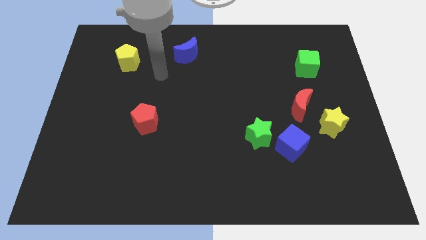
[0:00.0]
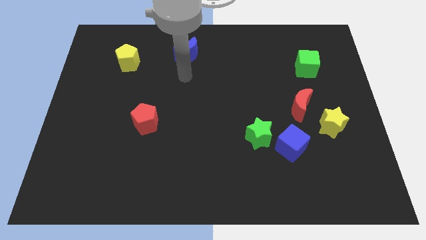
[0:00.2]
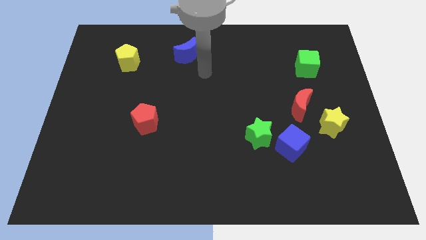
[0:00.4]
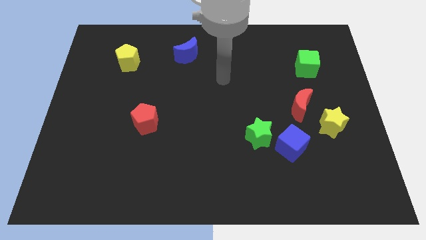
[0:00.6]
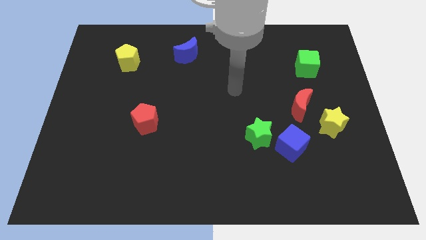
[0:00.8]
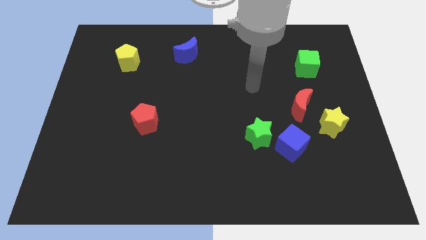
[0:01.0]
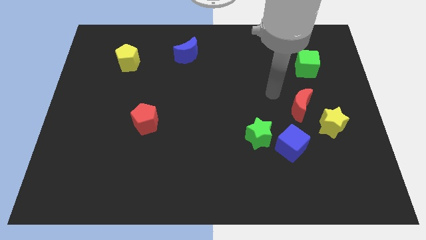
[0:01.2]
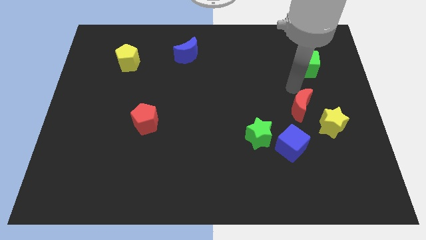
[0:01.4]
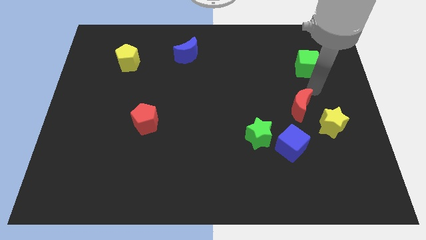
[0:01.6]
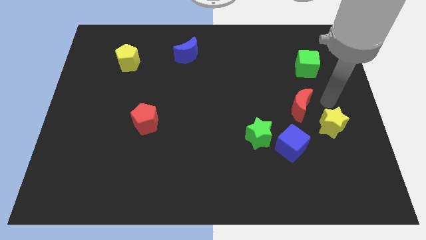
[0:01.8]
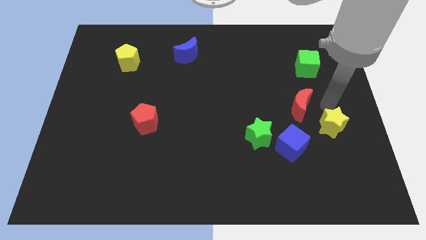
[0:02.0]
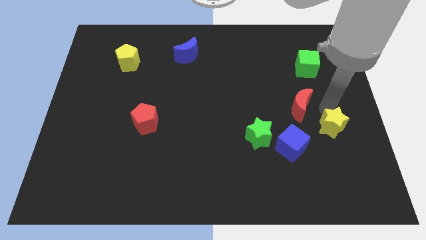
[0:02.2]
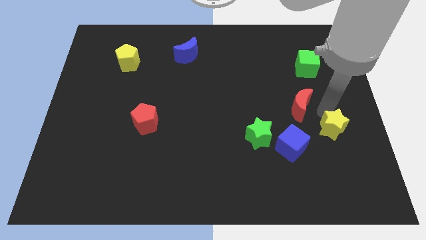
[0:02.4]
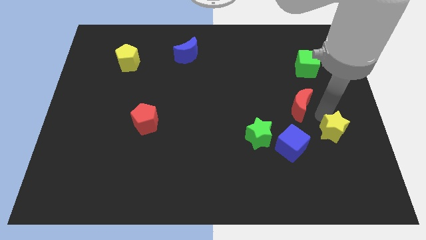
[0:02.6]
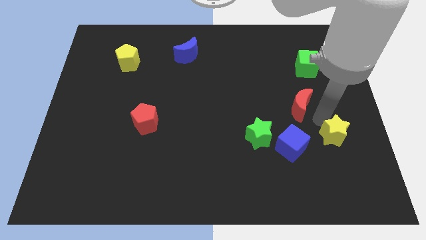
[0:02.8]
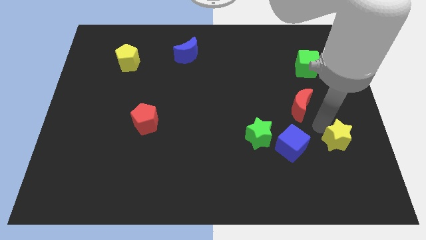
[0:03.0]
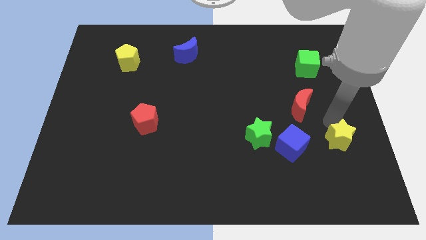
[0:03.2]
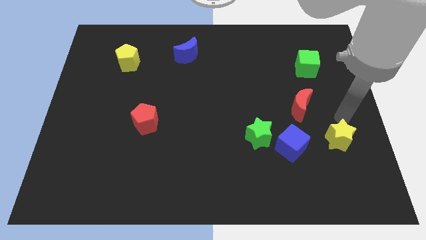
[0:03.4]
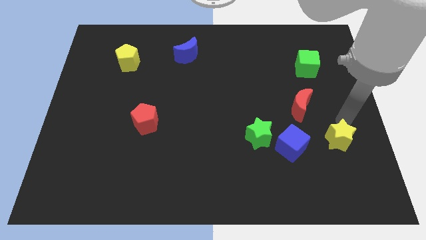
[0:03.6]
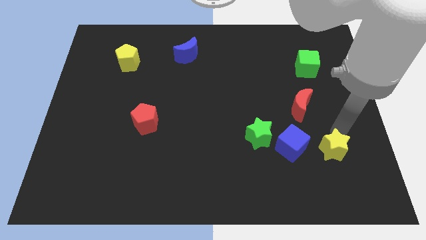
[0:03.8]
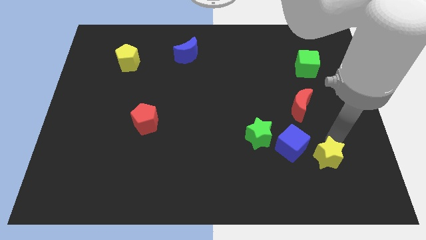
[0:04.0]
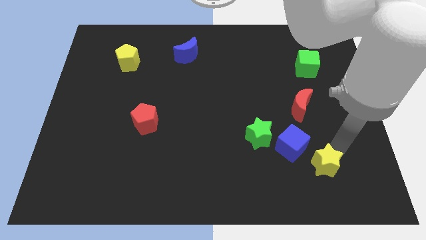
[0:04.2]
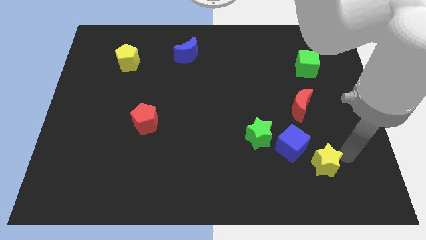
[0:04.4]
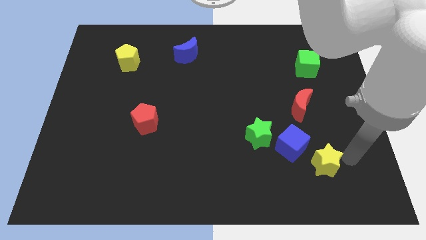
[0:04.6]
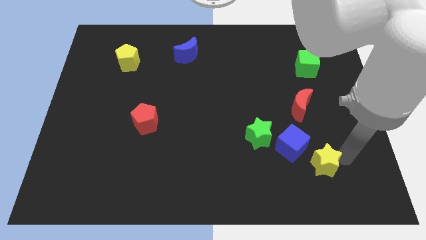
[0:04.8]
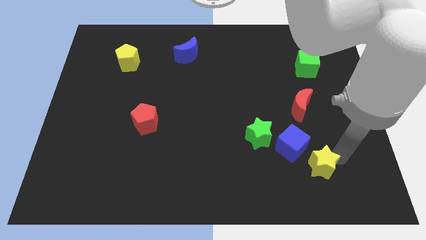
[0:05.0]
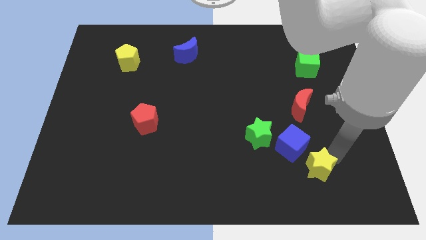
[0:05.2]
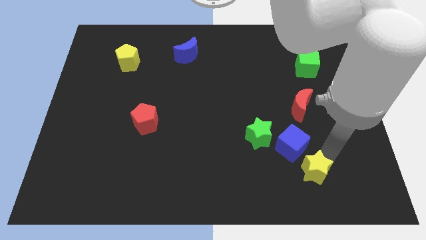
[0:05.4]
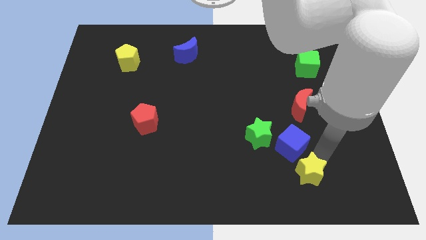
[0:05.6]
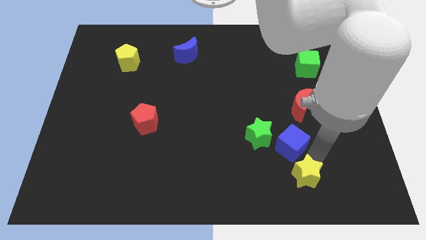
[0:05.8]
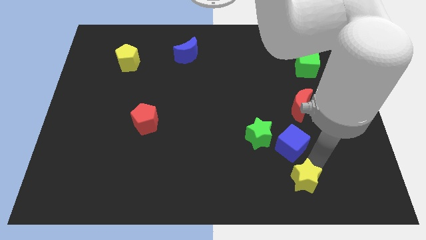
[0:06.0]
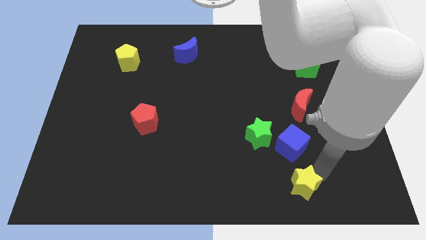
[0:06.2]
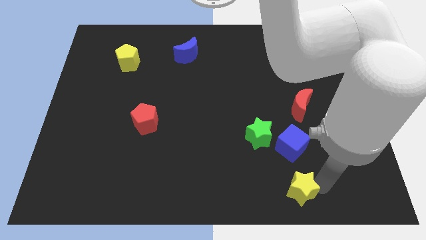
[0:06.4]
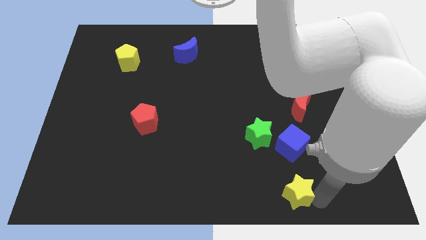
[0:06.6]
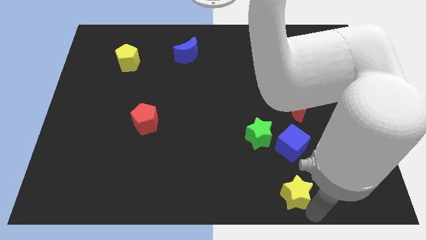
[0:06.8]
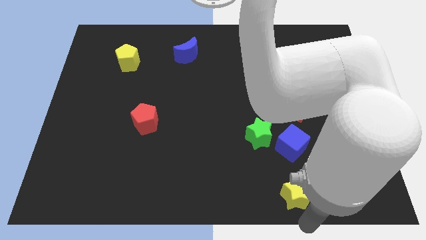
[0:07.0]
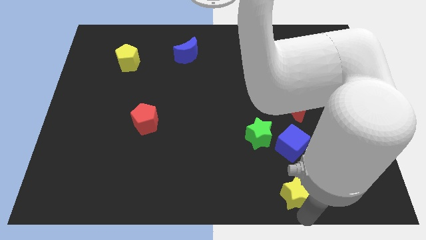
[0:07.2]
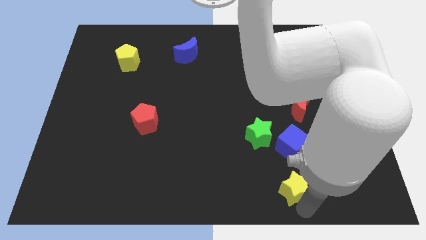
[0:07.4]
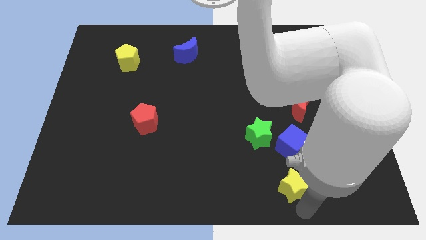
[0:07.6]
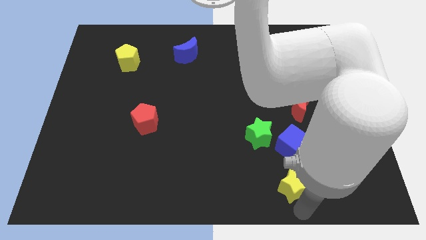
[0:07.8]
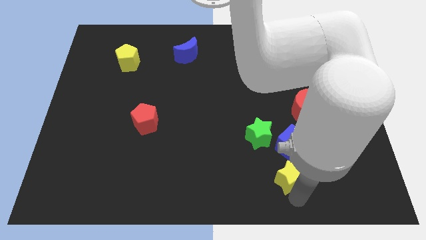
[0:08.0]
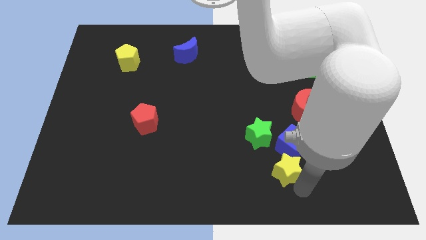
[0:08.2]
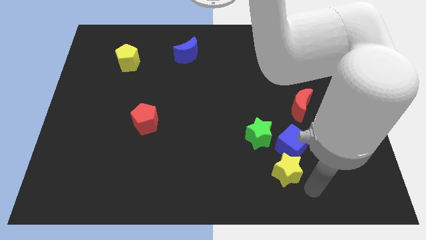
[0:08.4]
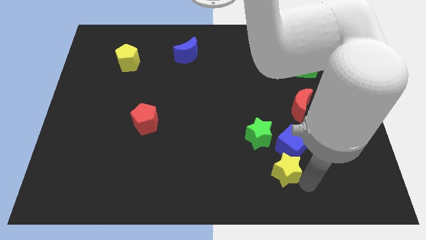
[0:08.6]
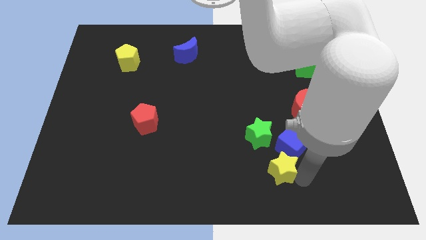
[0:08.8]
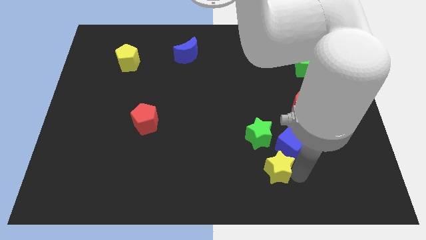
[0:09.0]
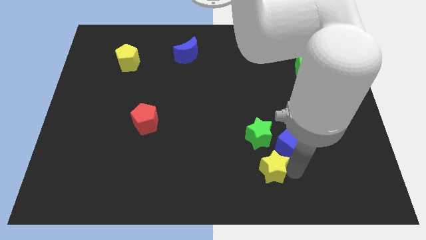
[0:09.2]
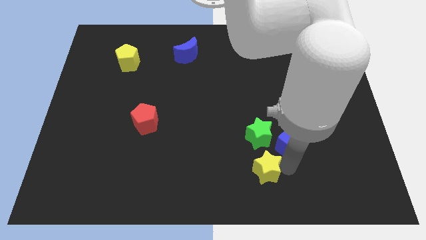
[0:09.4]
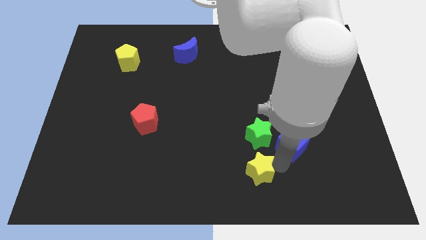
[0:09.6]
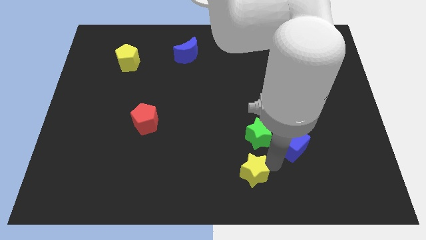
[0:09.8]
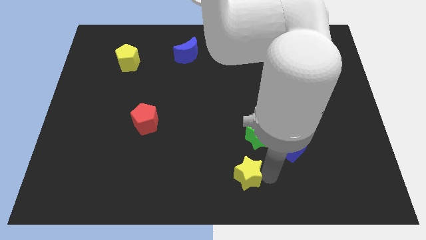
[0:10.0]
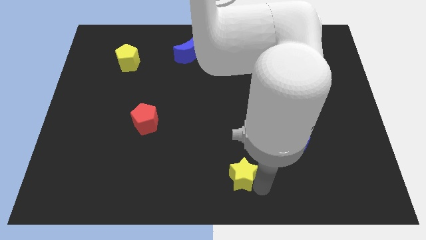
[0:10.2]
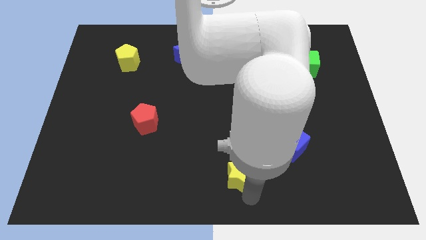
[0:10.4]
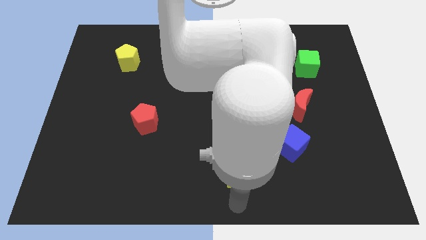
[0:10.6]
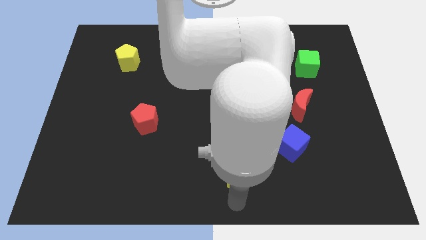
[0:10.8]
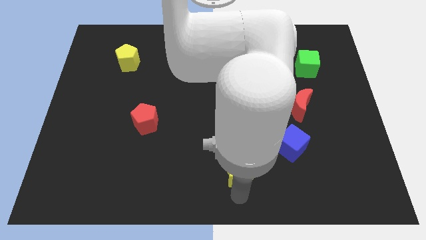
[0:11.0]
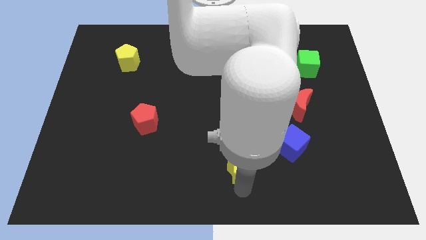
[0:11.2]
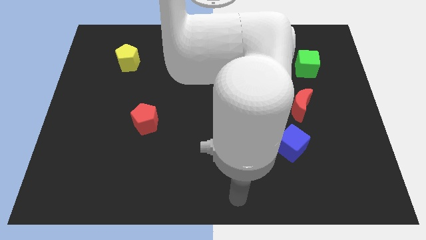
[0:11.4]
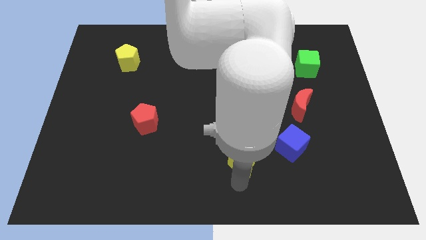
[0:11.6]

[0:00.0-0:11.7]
put the yellow star to the left side of the blue cube

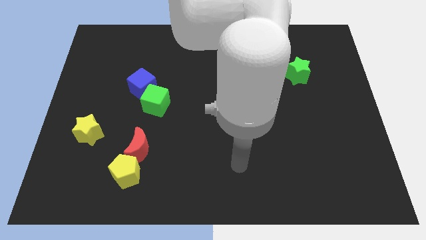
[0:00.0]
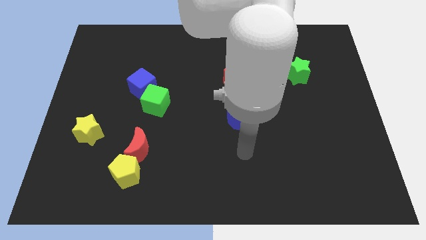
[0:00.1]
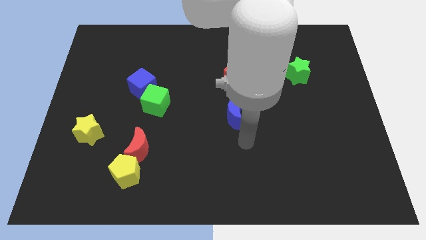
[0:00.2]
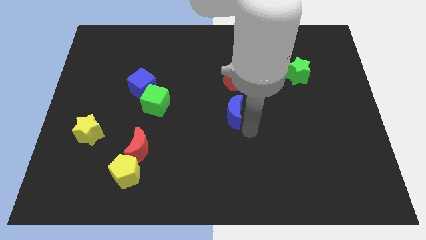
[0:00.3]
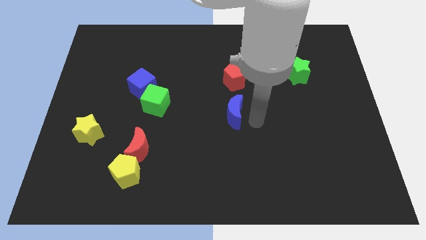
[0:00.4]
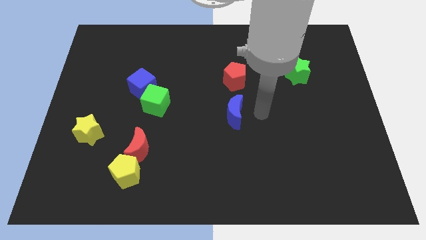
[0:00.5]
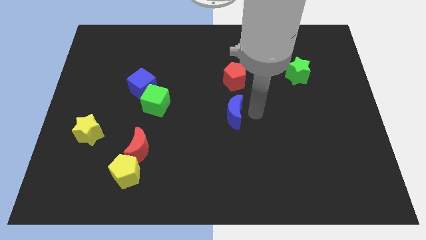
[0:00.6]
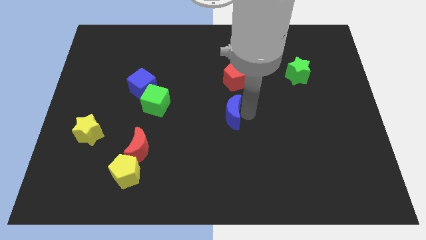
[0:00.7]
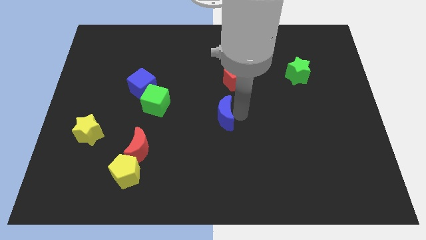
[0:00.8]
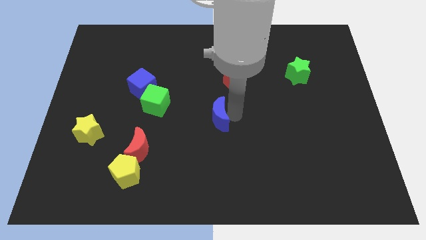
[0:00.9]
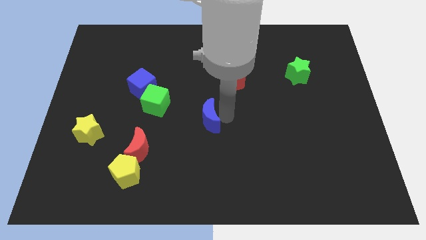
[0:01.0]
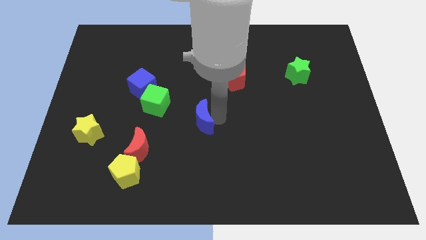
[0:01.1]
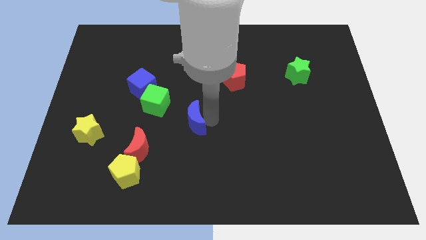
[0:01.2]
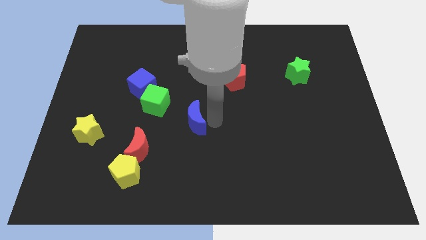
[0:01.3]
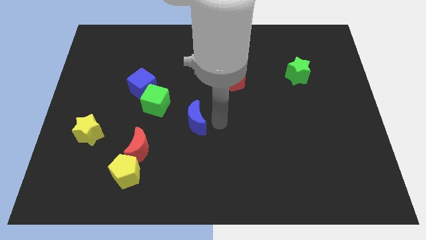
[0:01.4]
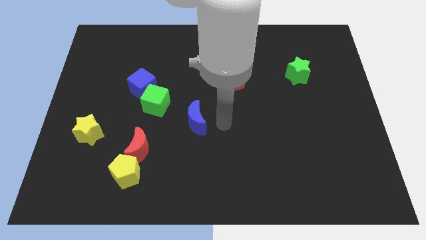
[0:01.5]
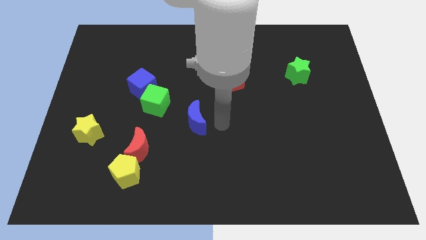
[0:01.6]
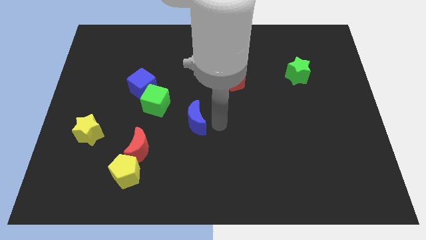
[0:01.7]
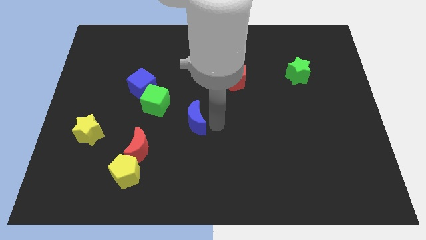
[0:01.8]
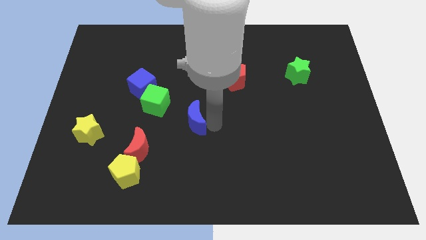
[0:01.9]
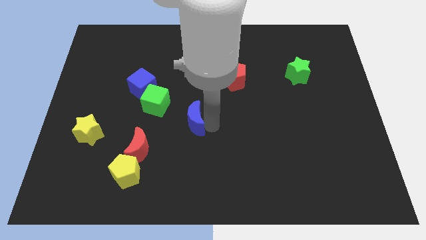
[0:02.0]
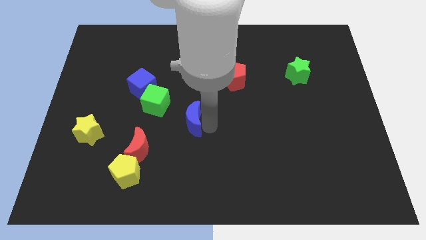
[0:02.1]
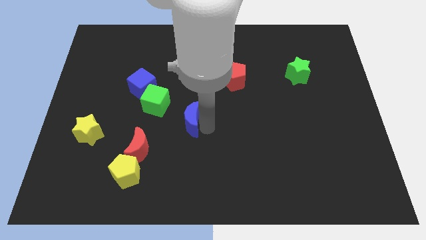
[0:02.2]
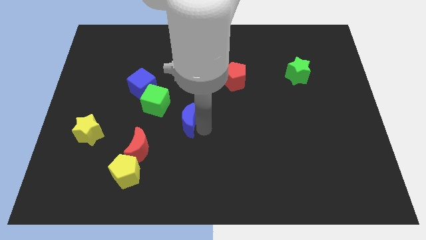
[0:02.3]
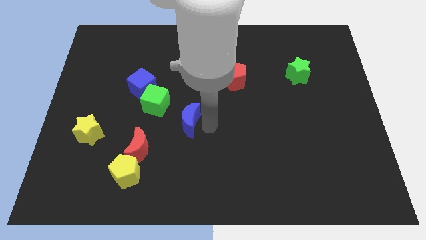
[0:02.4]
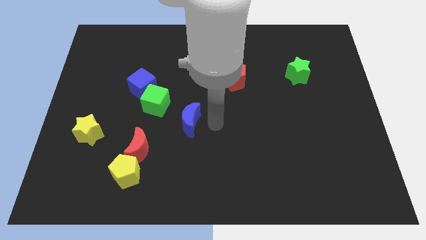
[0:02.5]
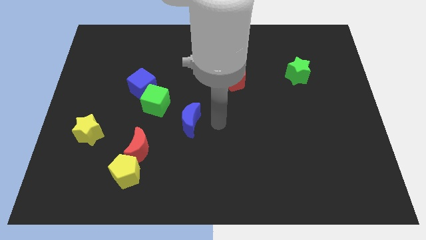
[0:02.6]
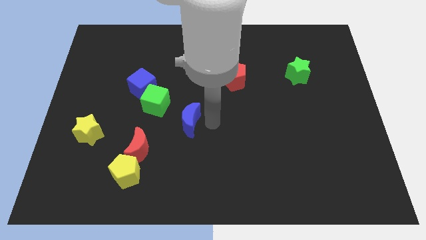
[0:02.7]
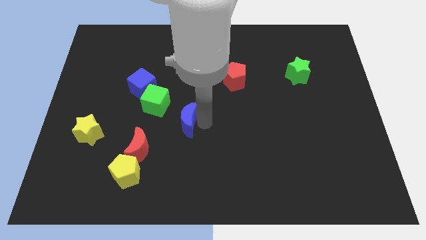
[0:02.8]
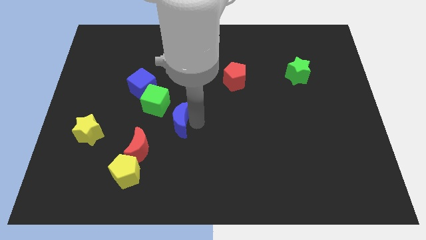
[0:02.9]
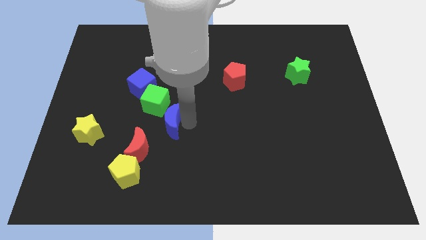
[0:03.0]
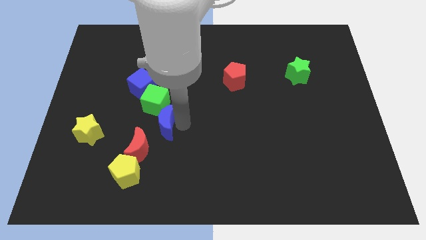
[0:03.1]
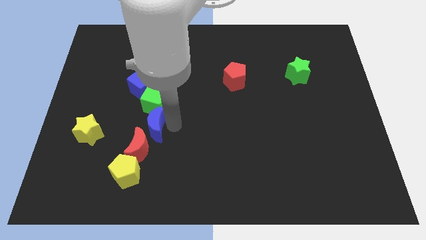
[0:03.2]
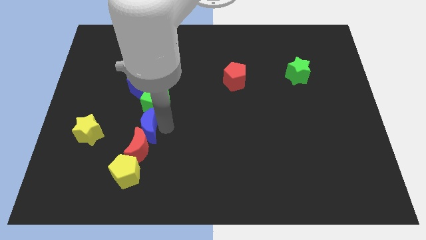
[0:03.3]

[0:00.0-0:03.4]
put the blue moon to the bottom left side of the green cube
